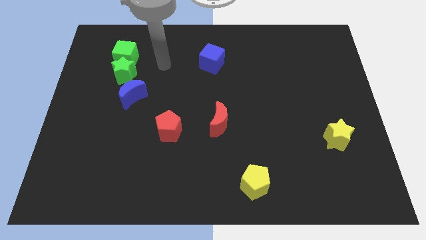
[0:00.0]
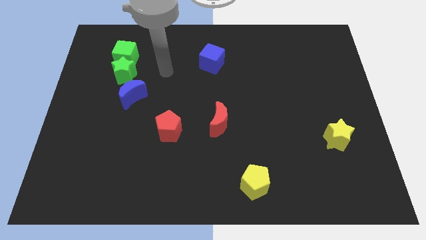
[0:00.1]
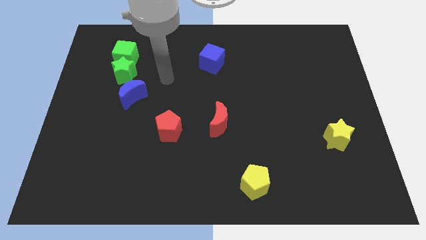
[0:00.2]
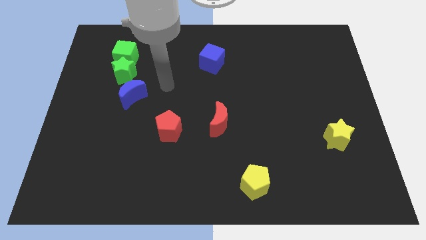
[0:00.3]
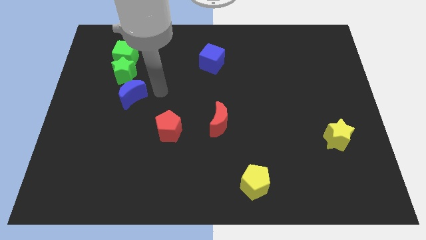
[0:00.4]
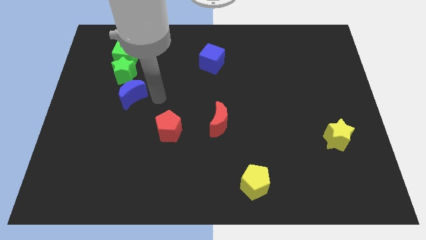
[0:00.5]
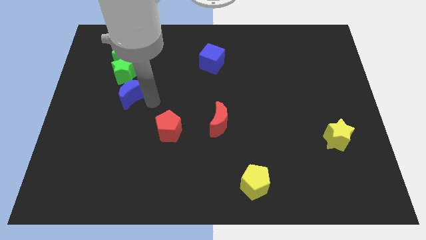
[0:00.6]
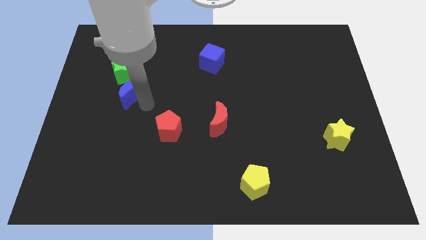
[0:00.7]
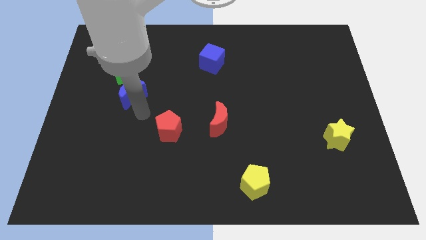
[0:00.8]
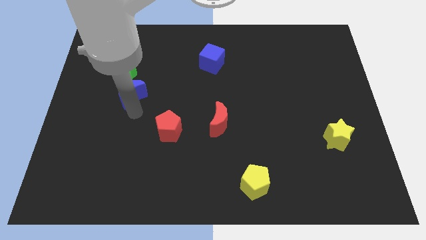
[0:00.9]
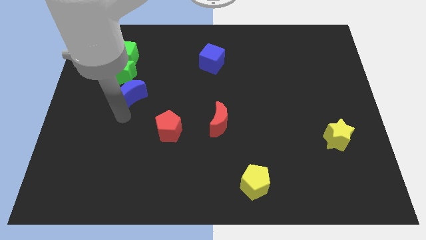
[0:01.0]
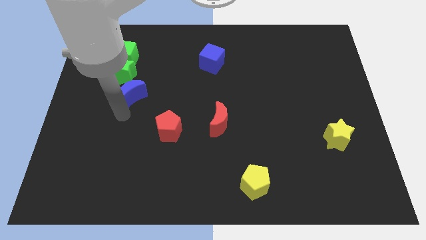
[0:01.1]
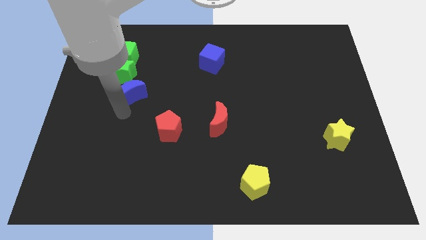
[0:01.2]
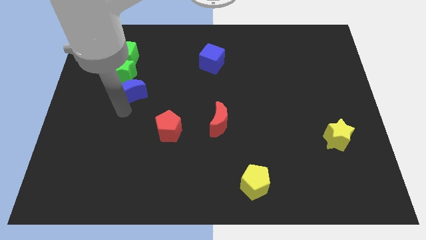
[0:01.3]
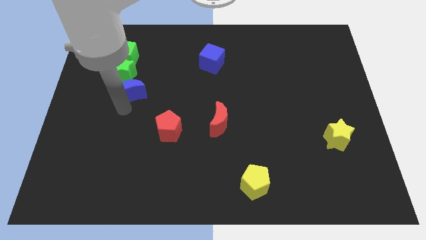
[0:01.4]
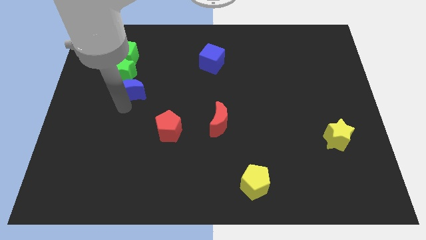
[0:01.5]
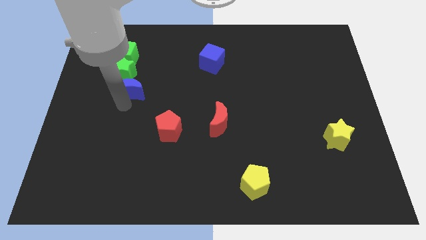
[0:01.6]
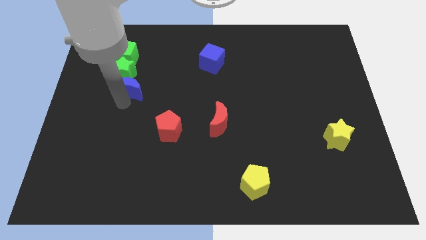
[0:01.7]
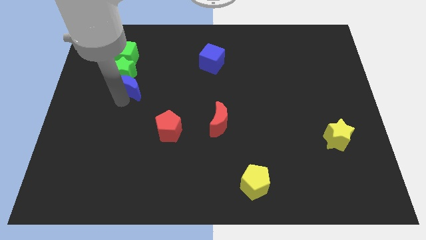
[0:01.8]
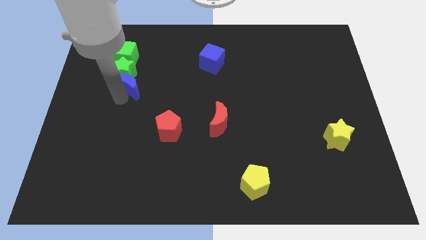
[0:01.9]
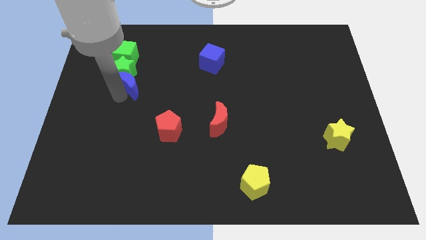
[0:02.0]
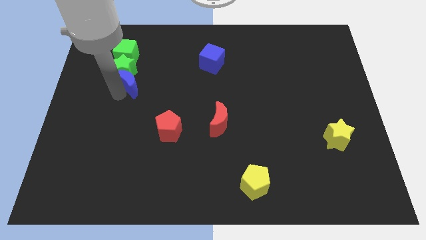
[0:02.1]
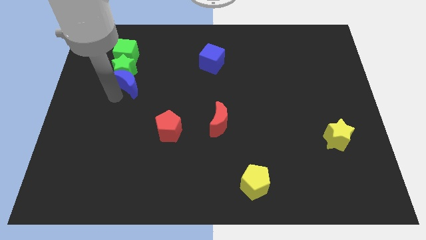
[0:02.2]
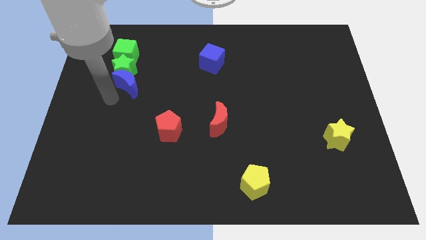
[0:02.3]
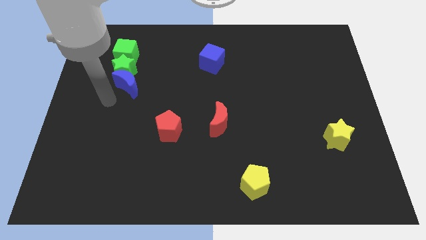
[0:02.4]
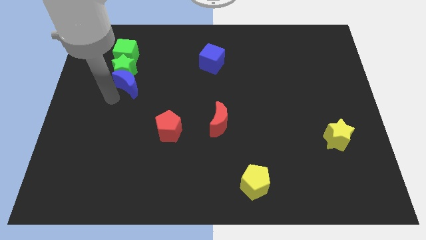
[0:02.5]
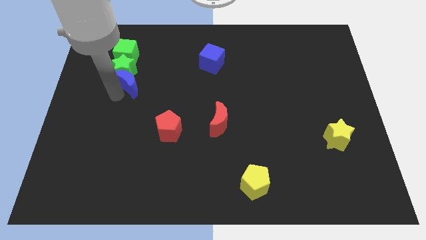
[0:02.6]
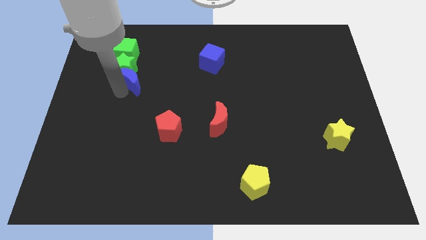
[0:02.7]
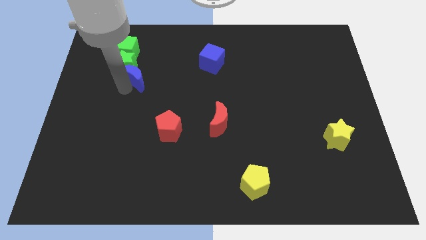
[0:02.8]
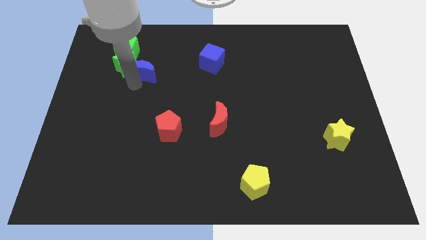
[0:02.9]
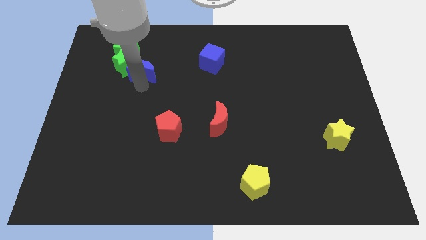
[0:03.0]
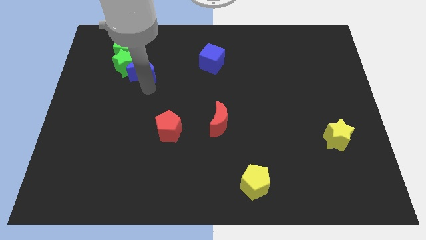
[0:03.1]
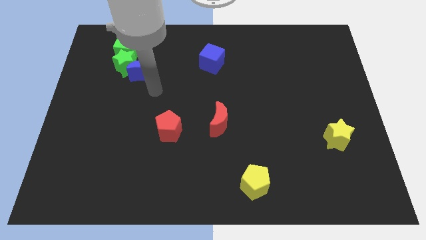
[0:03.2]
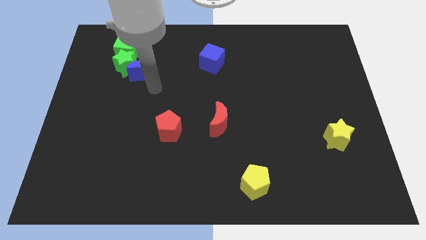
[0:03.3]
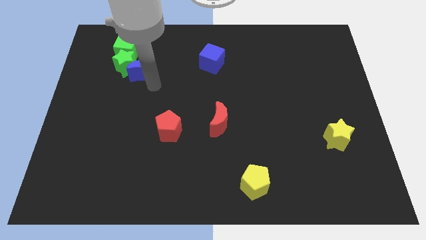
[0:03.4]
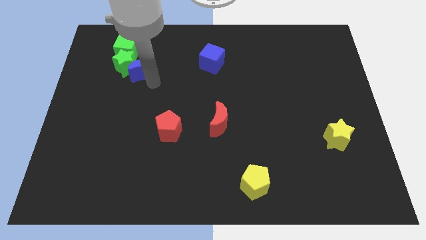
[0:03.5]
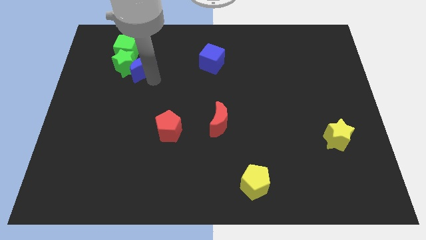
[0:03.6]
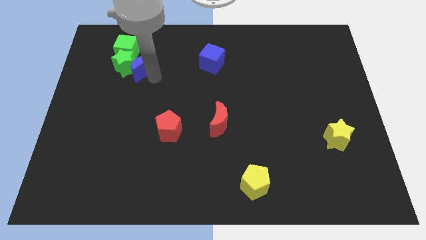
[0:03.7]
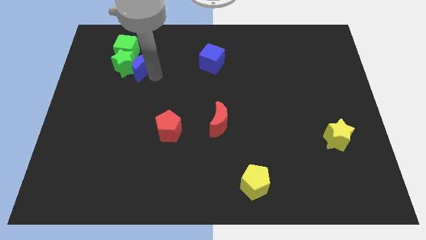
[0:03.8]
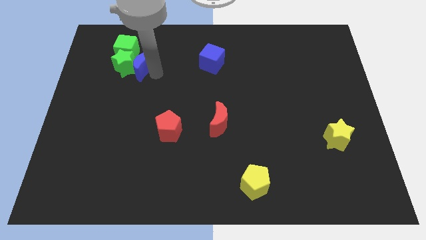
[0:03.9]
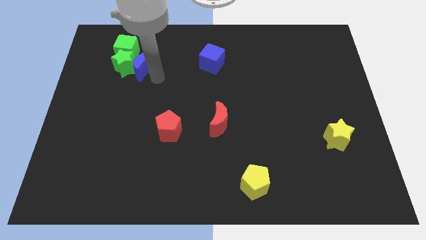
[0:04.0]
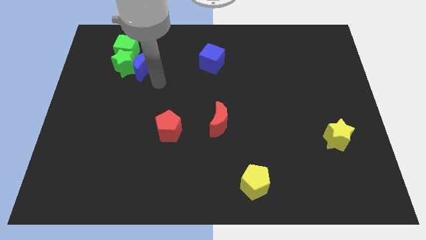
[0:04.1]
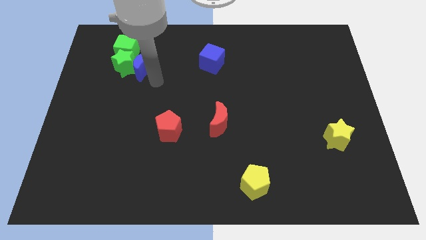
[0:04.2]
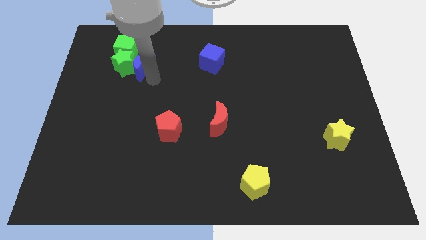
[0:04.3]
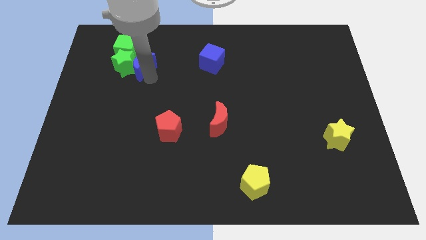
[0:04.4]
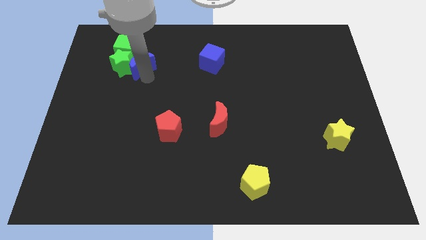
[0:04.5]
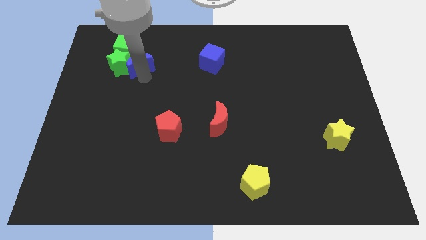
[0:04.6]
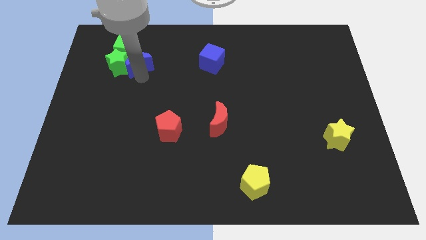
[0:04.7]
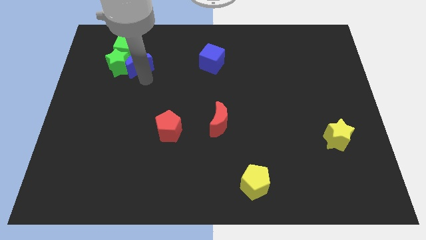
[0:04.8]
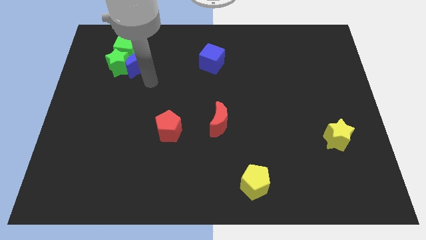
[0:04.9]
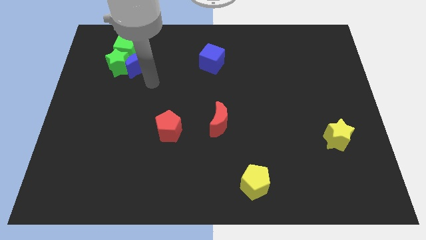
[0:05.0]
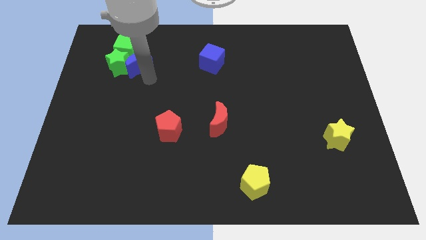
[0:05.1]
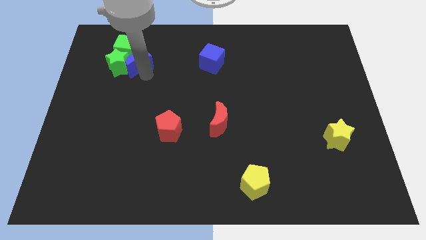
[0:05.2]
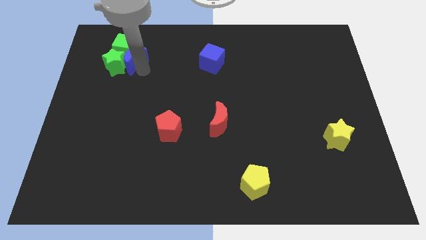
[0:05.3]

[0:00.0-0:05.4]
push the blue moon next to the green cube
